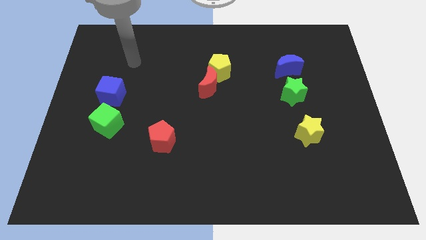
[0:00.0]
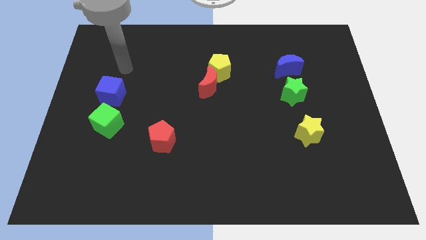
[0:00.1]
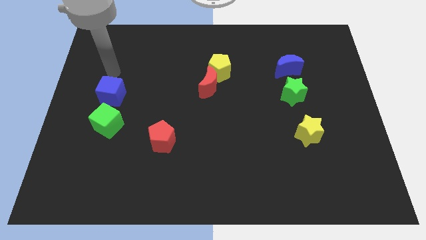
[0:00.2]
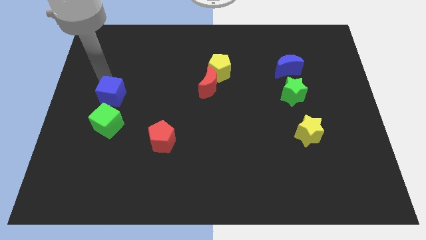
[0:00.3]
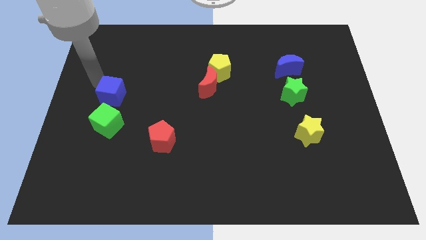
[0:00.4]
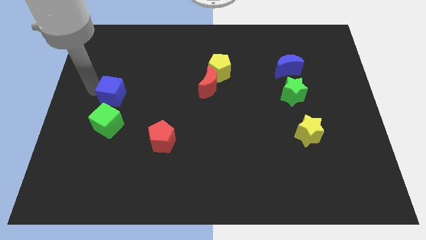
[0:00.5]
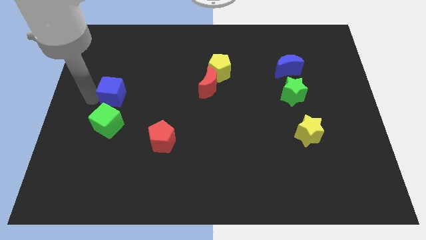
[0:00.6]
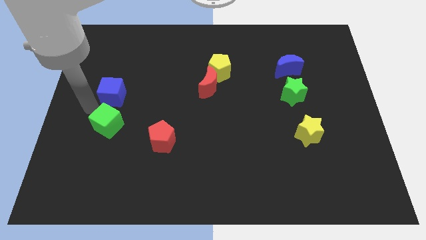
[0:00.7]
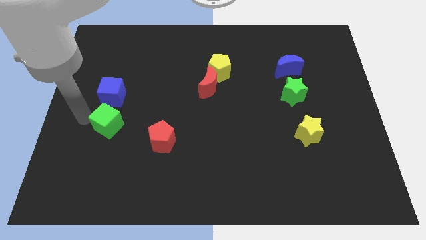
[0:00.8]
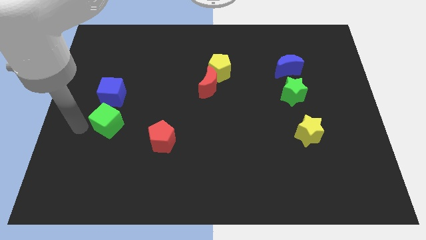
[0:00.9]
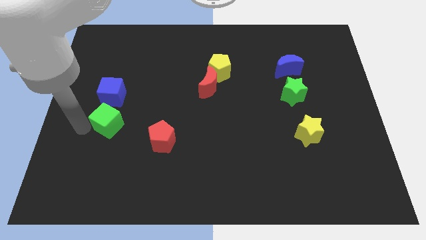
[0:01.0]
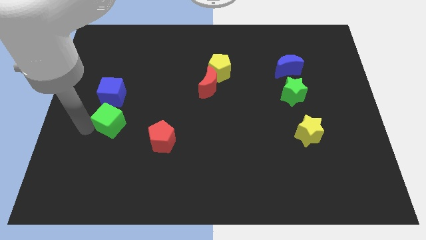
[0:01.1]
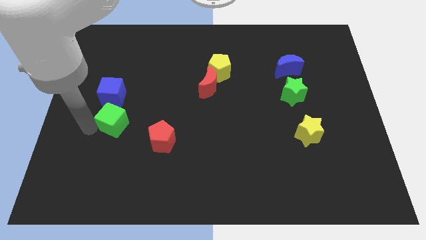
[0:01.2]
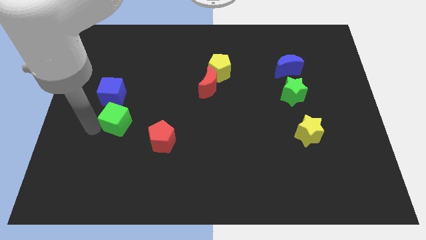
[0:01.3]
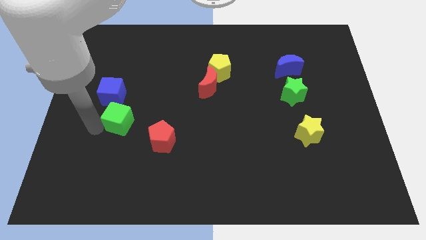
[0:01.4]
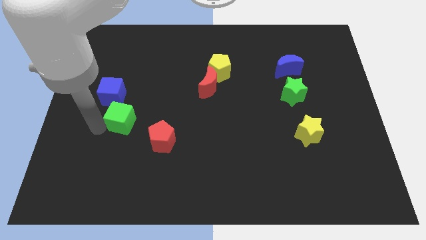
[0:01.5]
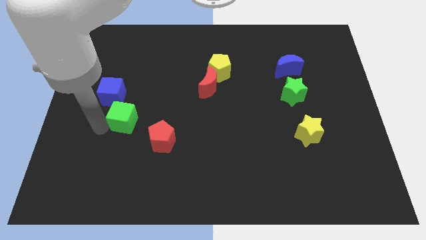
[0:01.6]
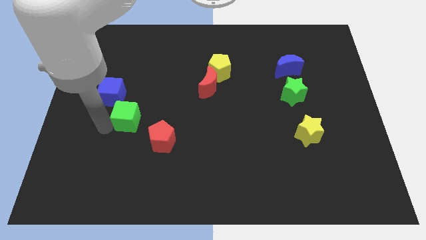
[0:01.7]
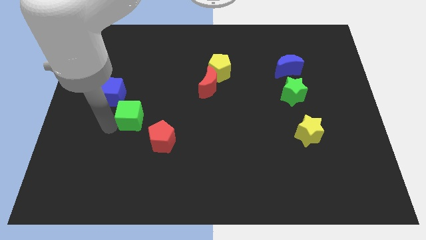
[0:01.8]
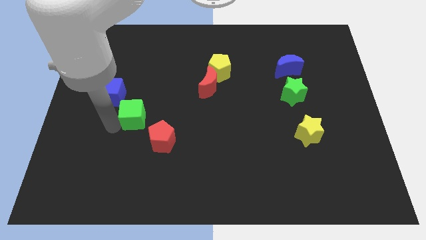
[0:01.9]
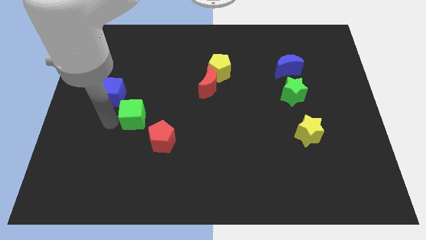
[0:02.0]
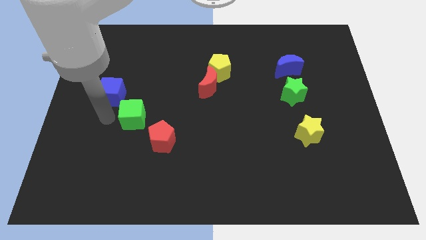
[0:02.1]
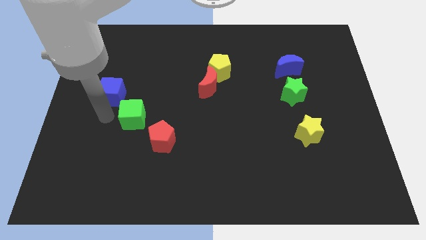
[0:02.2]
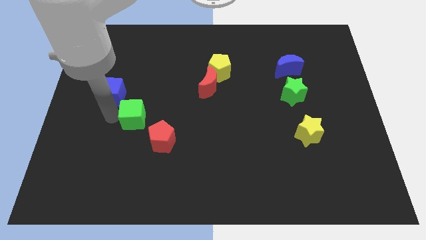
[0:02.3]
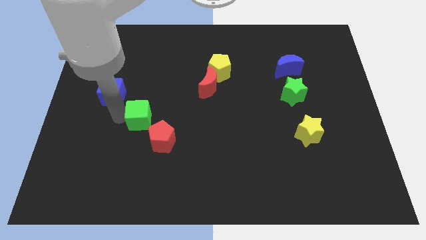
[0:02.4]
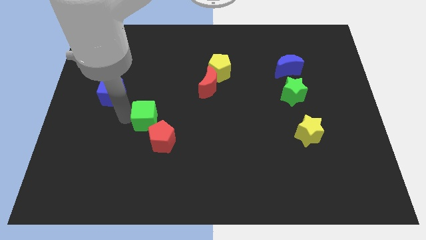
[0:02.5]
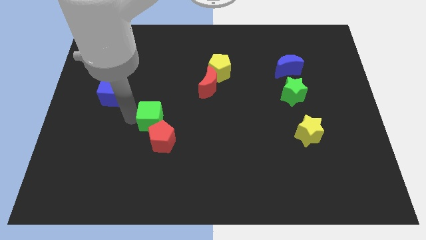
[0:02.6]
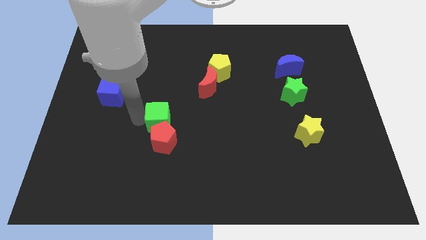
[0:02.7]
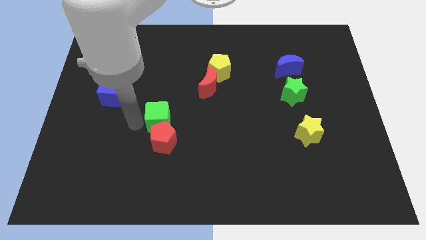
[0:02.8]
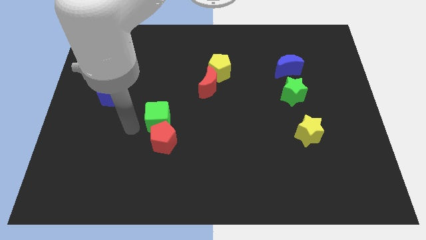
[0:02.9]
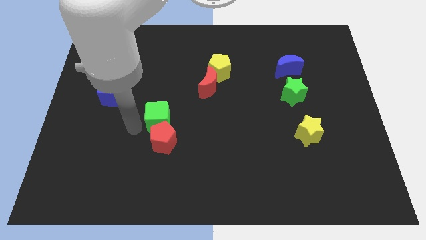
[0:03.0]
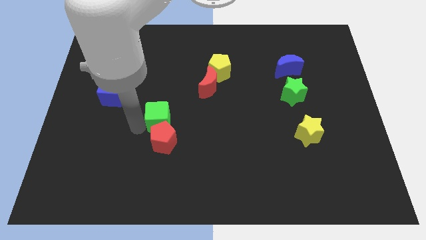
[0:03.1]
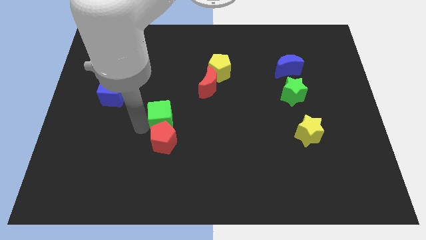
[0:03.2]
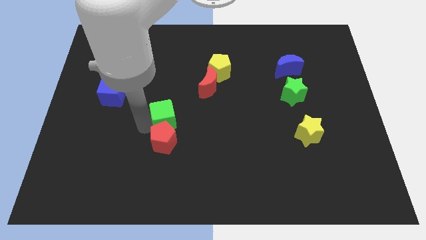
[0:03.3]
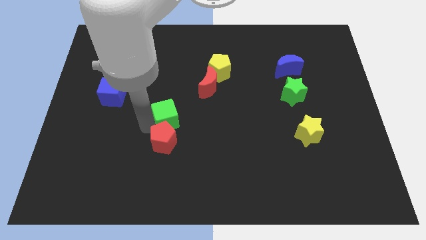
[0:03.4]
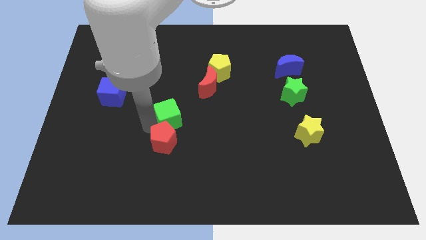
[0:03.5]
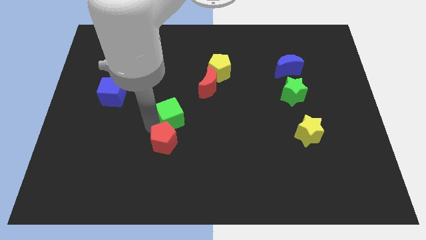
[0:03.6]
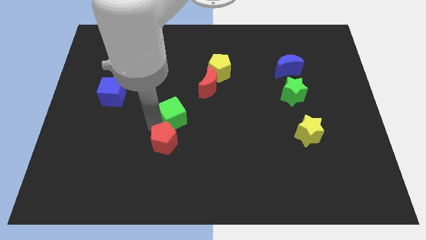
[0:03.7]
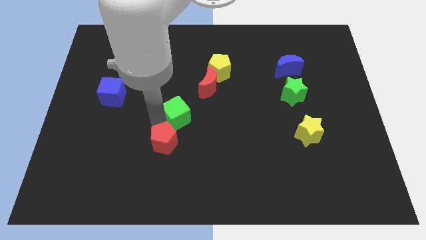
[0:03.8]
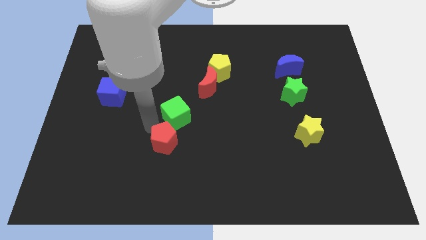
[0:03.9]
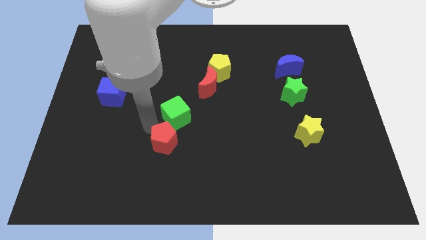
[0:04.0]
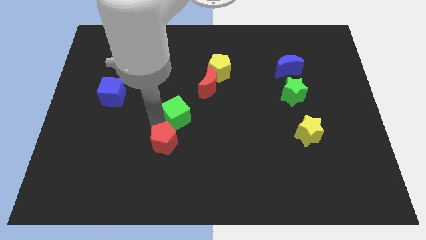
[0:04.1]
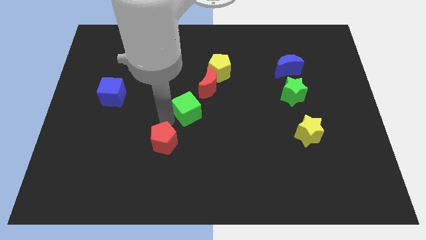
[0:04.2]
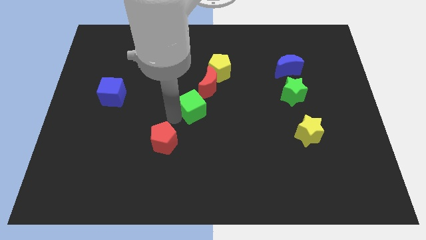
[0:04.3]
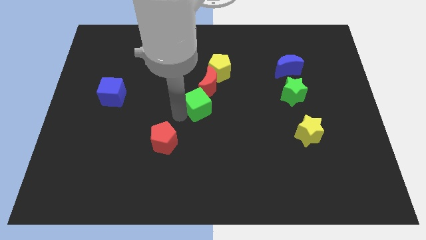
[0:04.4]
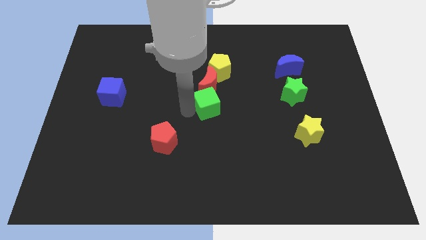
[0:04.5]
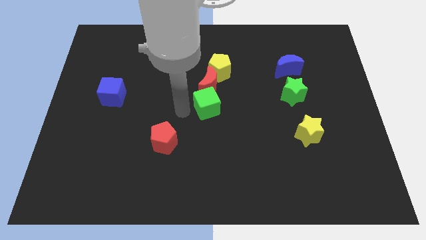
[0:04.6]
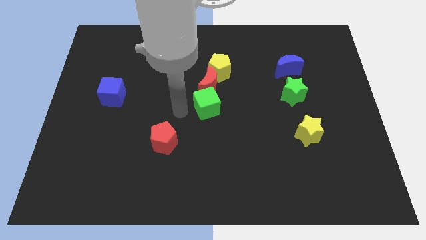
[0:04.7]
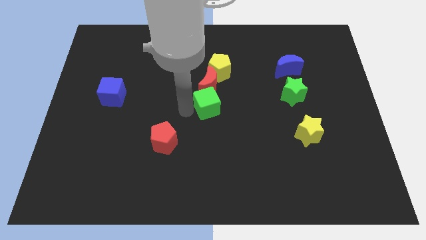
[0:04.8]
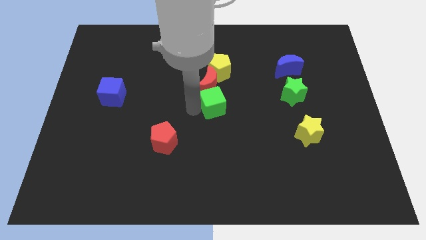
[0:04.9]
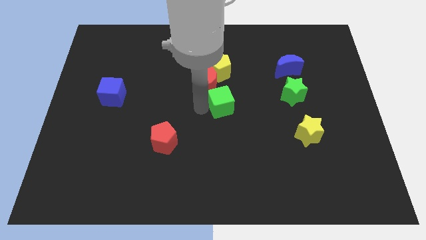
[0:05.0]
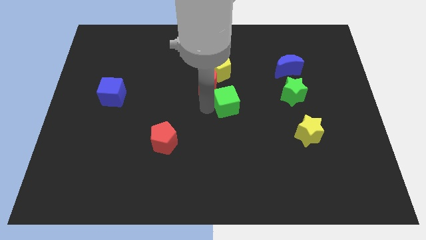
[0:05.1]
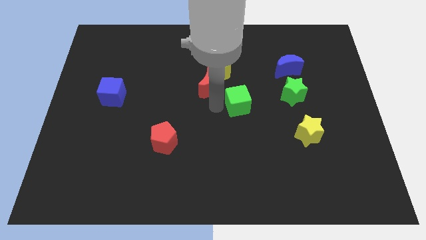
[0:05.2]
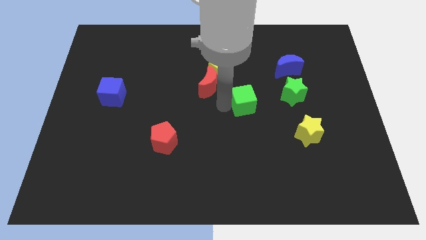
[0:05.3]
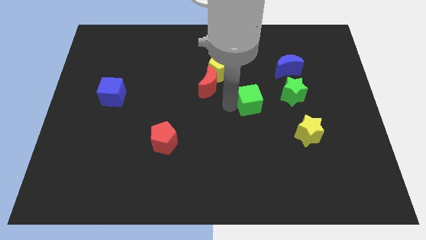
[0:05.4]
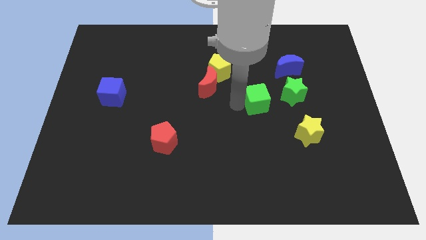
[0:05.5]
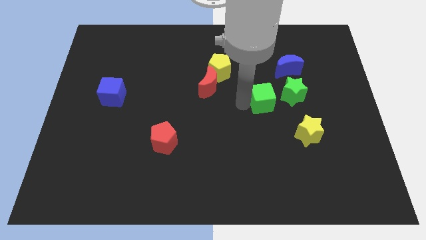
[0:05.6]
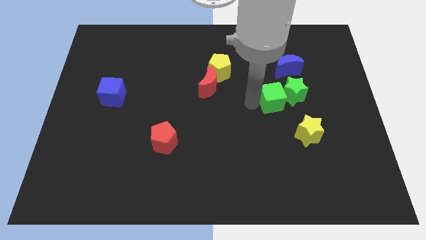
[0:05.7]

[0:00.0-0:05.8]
slide the green cube to the green star

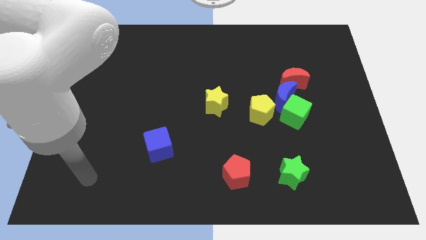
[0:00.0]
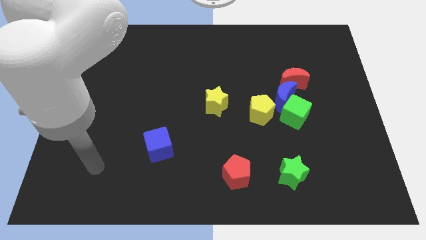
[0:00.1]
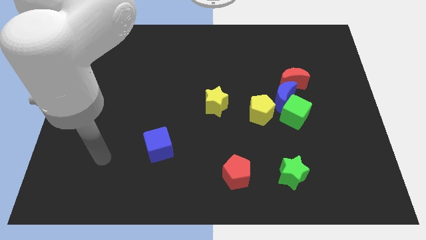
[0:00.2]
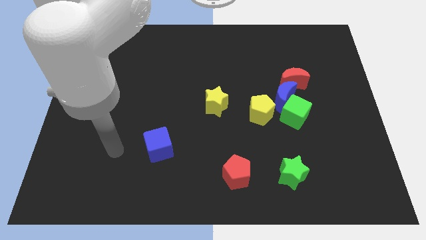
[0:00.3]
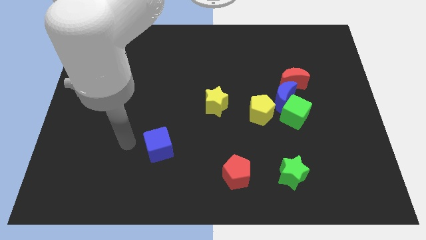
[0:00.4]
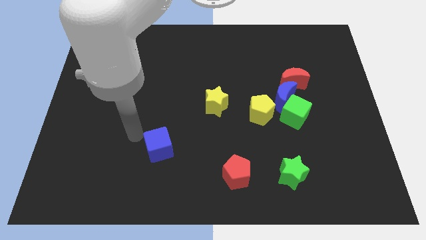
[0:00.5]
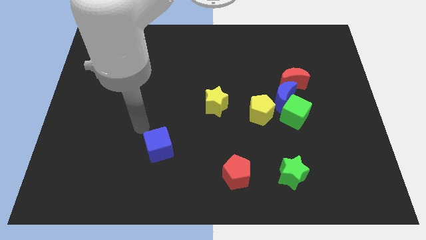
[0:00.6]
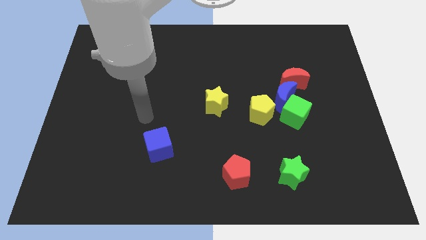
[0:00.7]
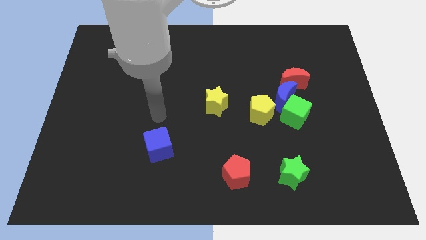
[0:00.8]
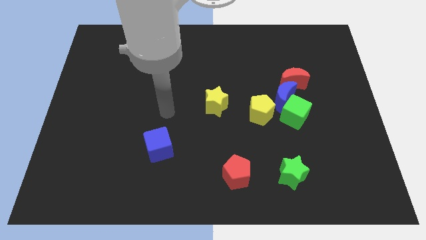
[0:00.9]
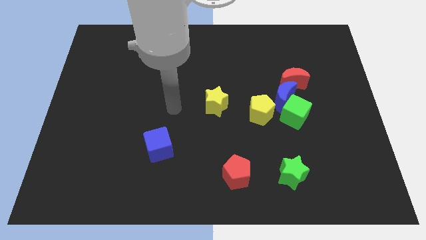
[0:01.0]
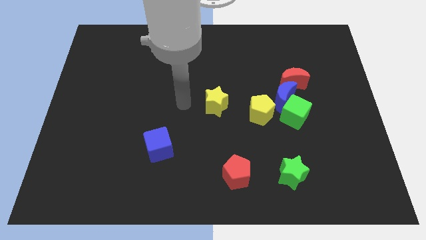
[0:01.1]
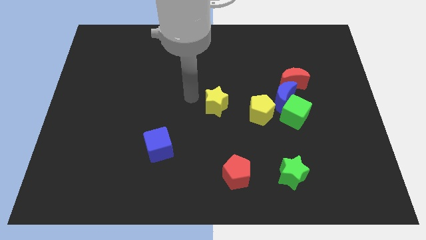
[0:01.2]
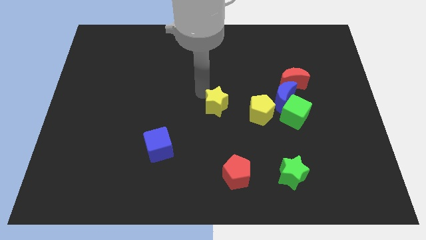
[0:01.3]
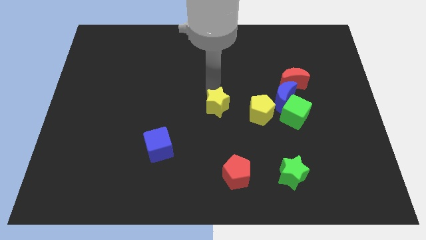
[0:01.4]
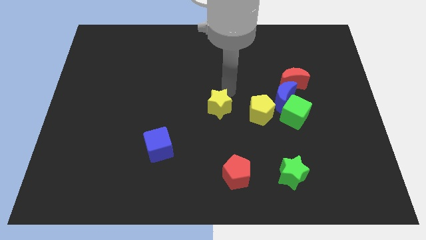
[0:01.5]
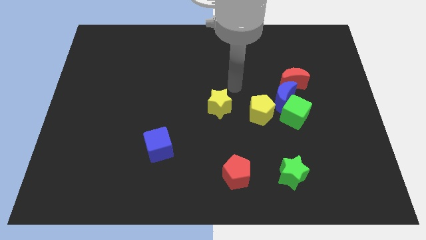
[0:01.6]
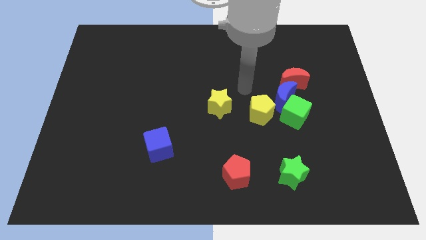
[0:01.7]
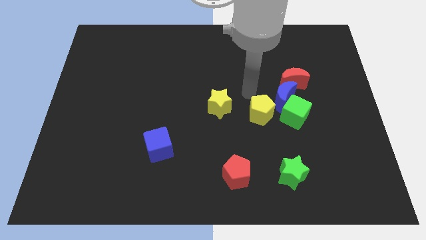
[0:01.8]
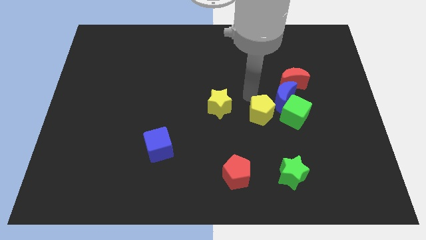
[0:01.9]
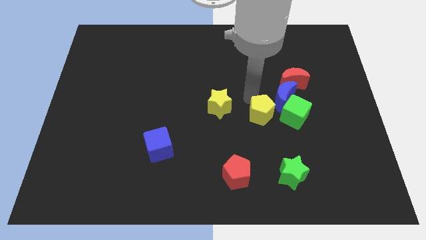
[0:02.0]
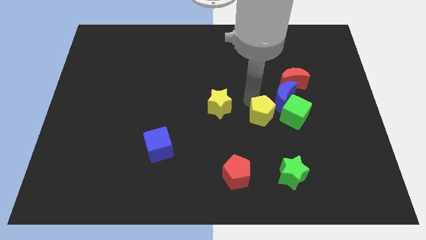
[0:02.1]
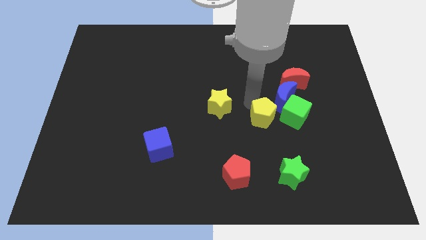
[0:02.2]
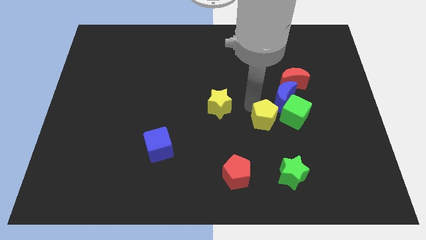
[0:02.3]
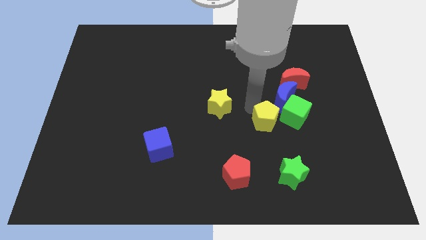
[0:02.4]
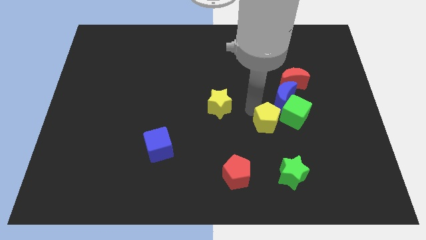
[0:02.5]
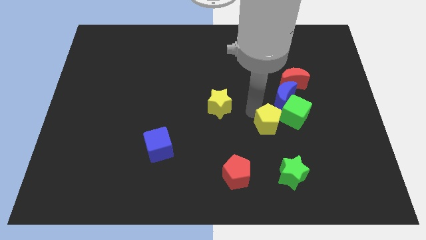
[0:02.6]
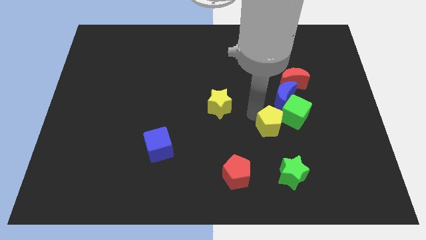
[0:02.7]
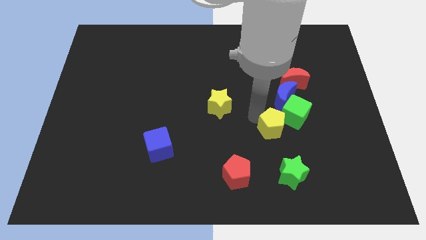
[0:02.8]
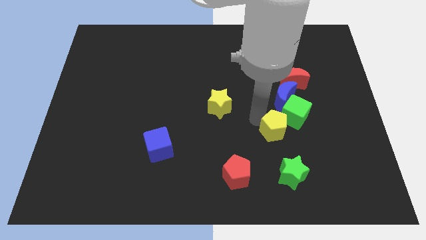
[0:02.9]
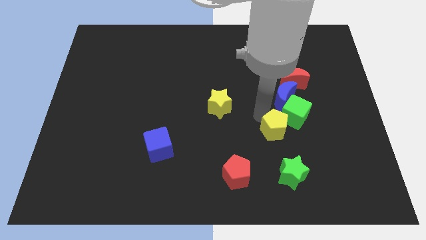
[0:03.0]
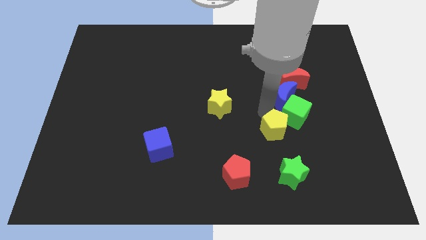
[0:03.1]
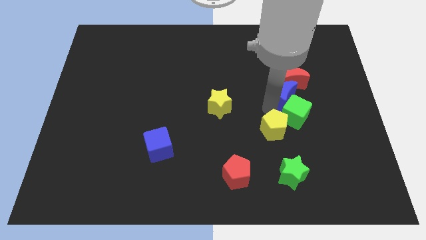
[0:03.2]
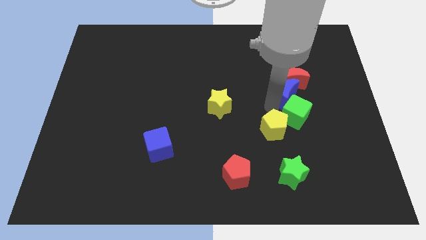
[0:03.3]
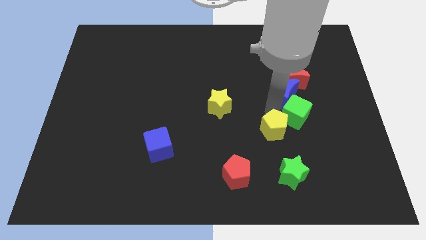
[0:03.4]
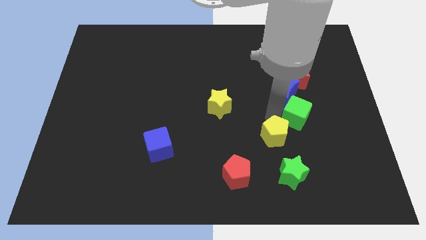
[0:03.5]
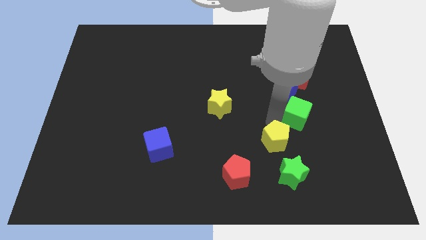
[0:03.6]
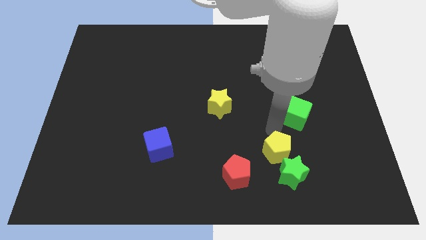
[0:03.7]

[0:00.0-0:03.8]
move the yellow pentagon next to the green star
